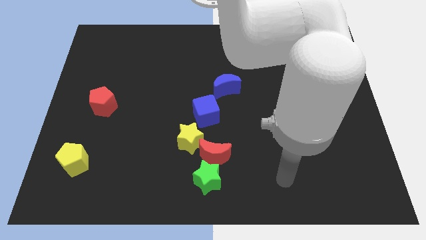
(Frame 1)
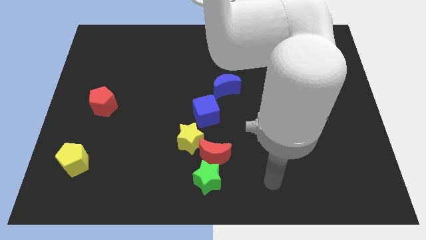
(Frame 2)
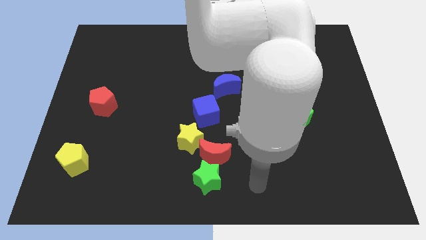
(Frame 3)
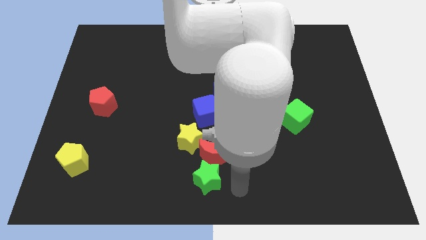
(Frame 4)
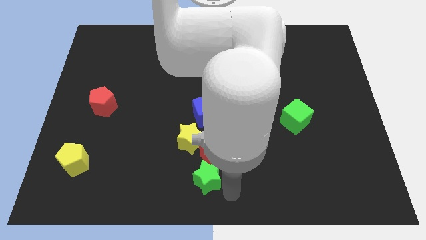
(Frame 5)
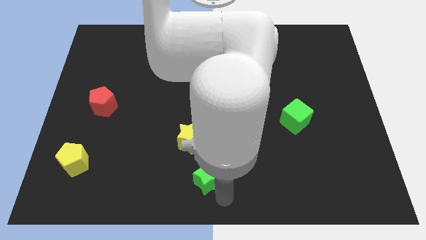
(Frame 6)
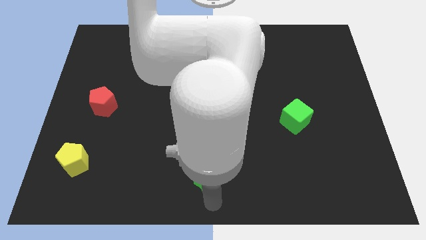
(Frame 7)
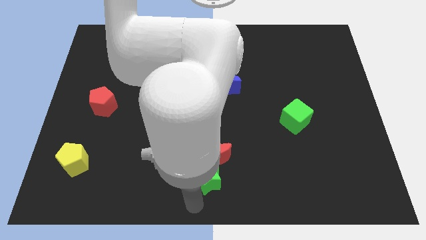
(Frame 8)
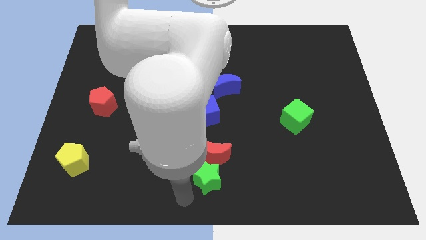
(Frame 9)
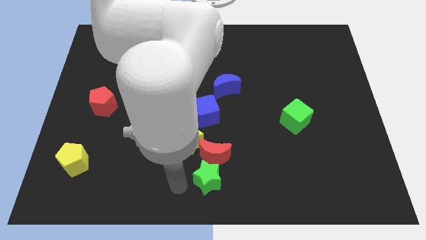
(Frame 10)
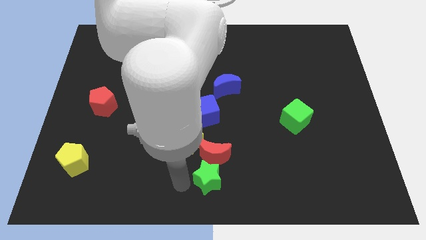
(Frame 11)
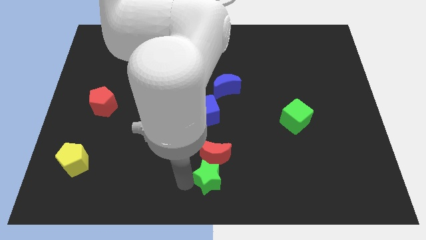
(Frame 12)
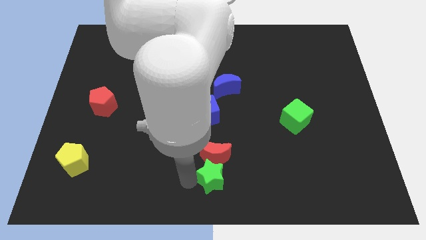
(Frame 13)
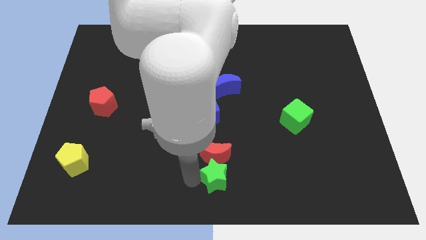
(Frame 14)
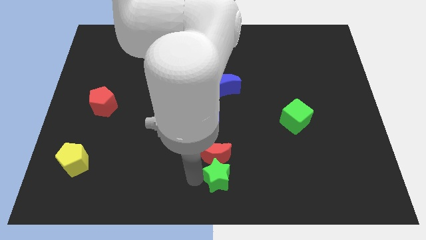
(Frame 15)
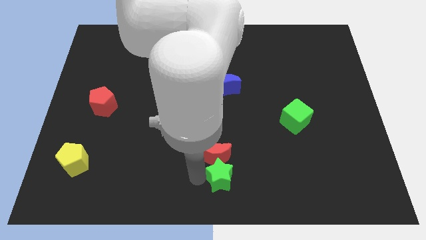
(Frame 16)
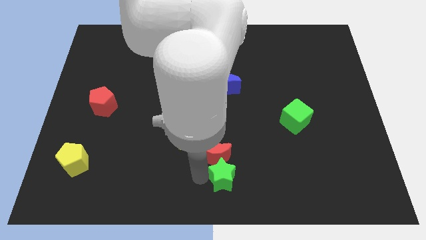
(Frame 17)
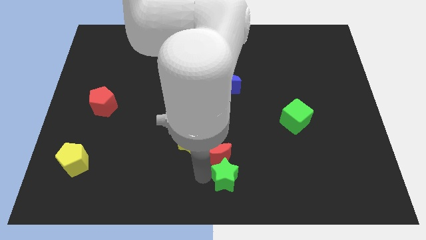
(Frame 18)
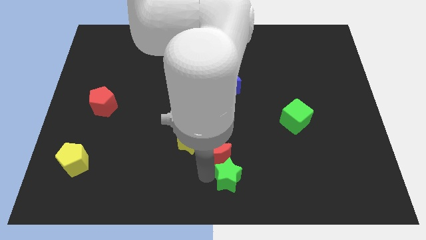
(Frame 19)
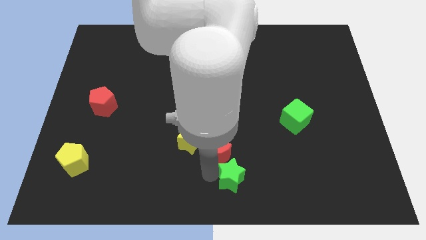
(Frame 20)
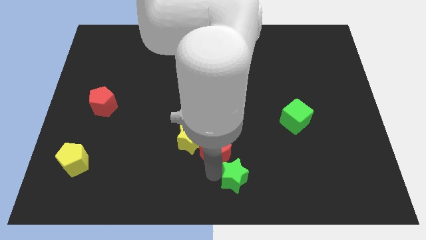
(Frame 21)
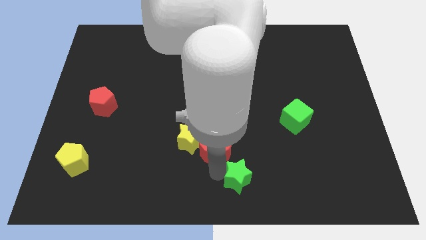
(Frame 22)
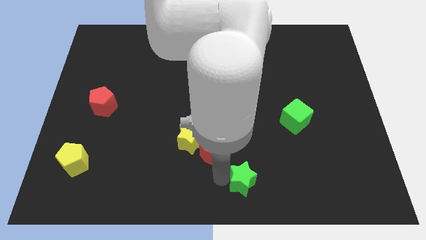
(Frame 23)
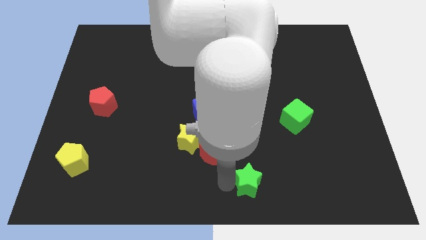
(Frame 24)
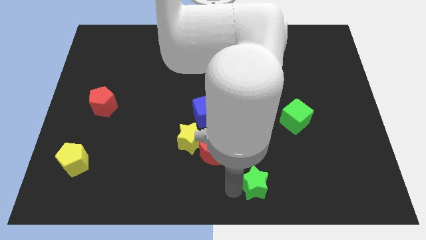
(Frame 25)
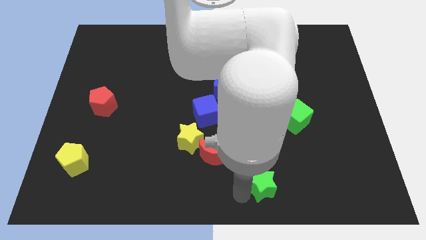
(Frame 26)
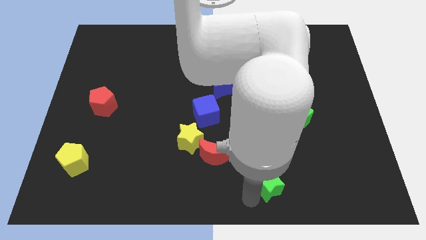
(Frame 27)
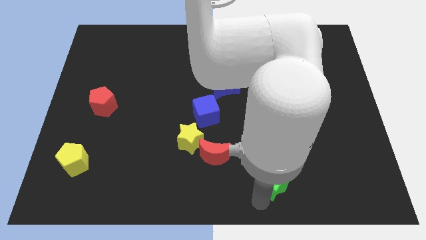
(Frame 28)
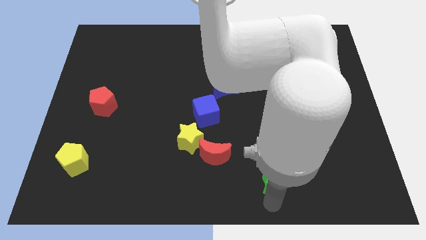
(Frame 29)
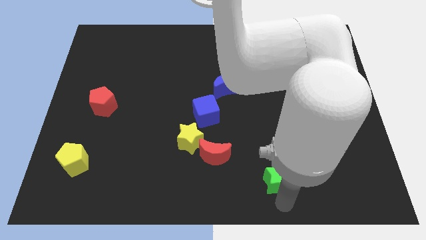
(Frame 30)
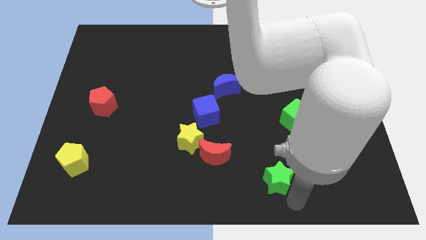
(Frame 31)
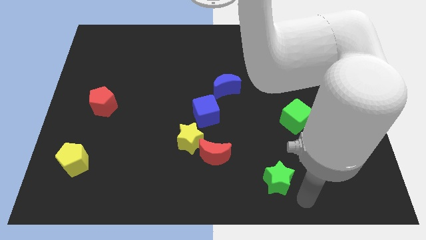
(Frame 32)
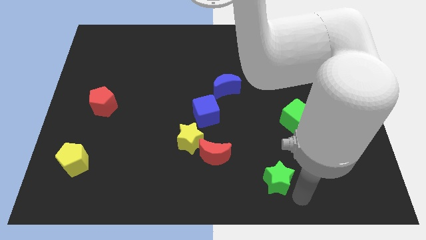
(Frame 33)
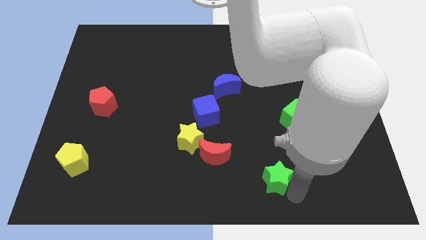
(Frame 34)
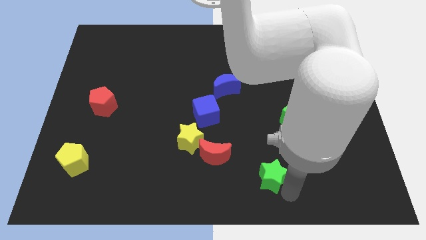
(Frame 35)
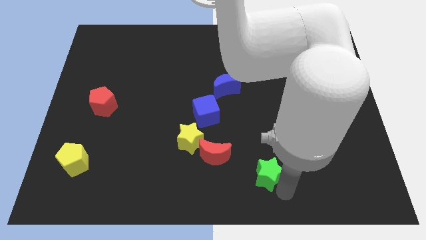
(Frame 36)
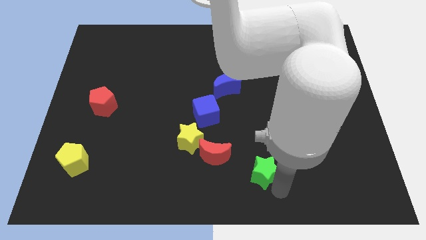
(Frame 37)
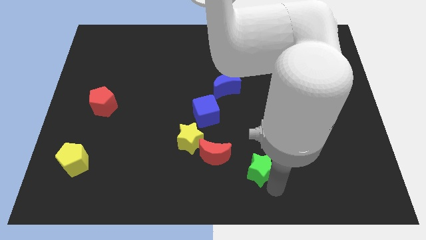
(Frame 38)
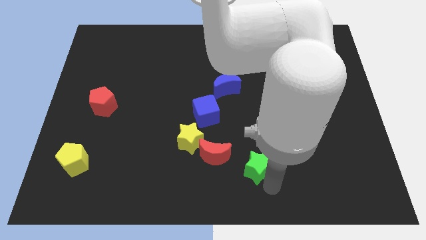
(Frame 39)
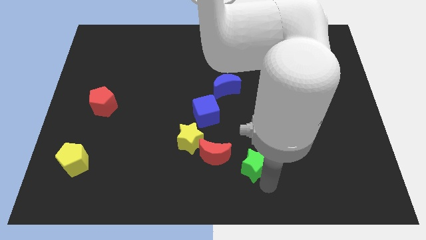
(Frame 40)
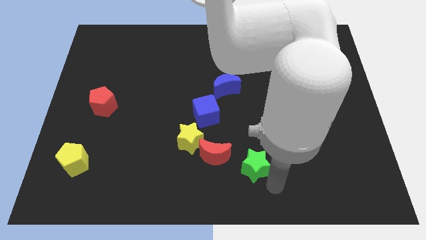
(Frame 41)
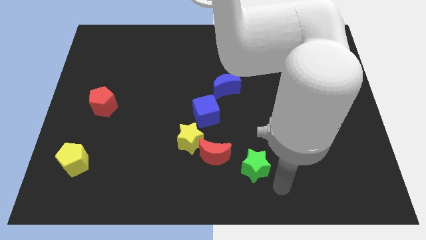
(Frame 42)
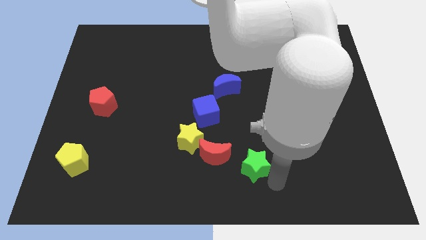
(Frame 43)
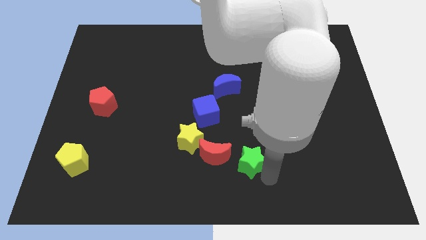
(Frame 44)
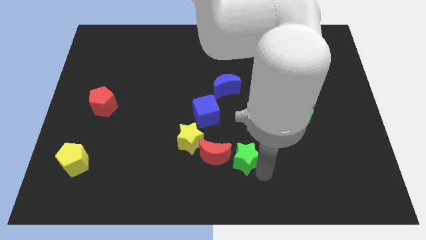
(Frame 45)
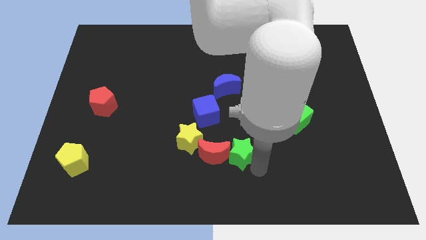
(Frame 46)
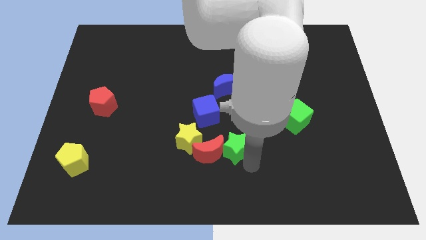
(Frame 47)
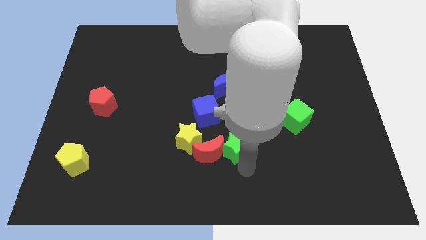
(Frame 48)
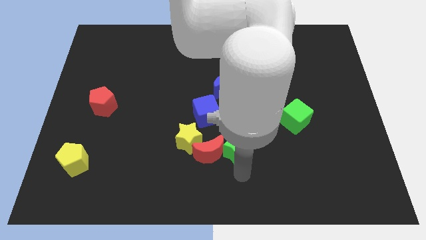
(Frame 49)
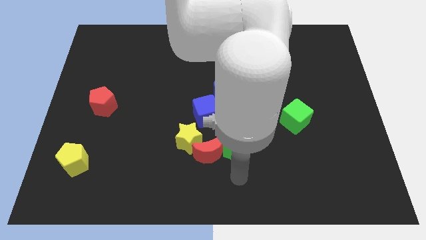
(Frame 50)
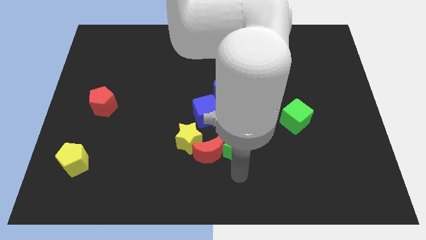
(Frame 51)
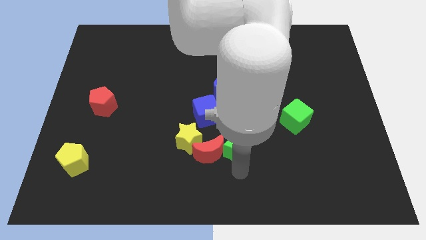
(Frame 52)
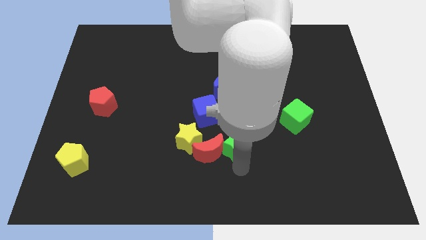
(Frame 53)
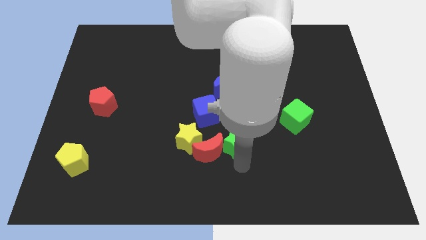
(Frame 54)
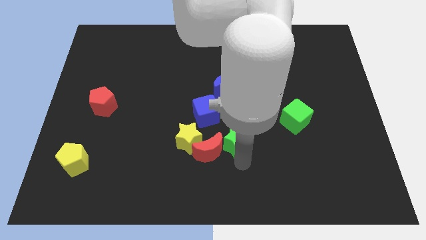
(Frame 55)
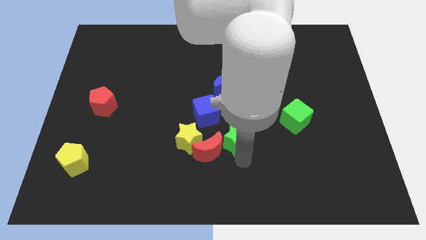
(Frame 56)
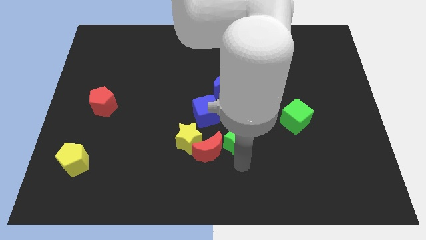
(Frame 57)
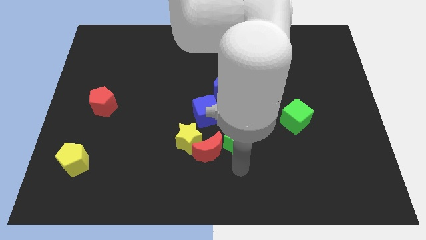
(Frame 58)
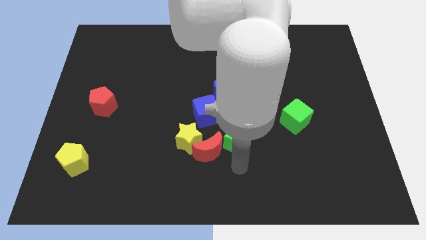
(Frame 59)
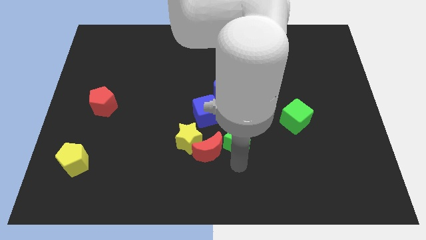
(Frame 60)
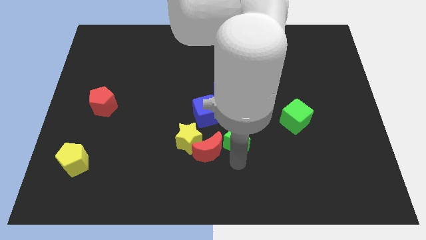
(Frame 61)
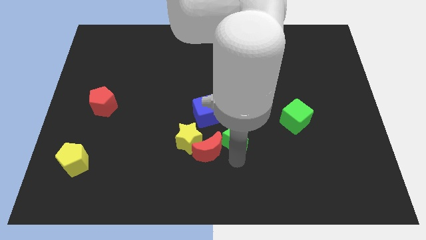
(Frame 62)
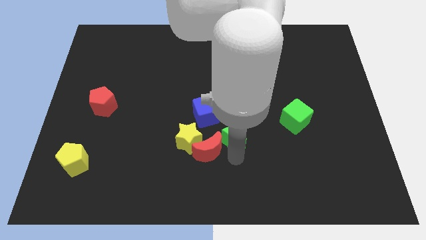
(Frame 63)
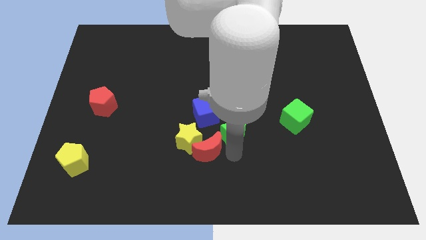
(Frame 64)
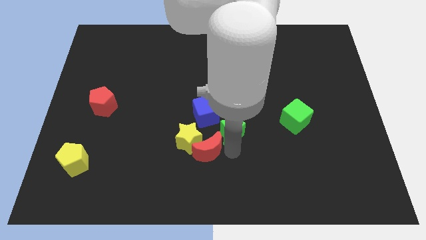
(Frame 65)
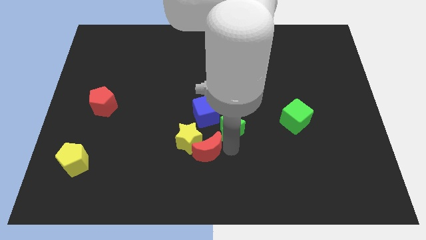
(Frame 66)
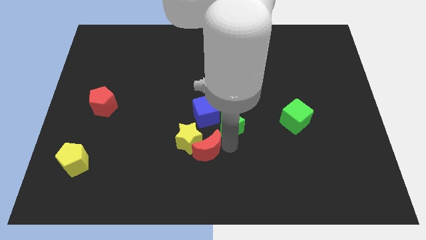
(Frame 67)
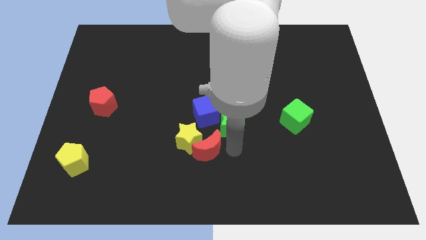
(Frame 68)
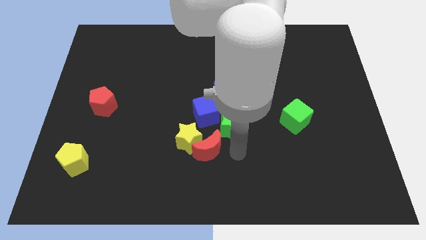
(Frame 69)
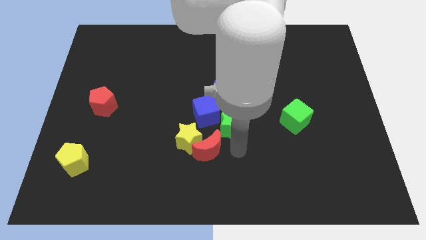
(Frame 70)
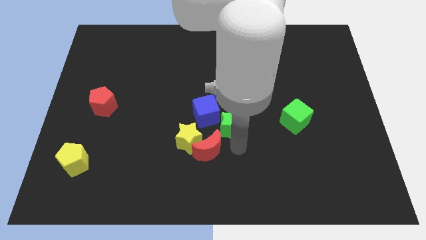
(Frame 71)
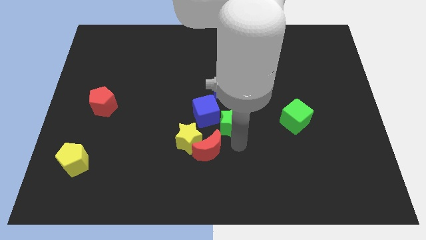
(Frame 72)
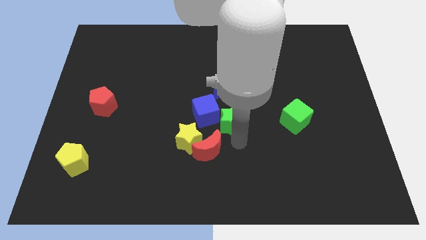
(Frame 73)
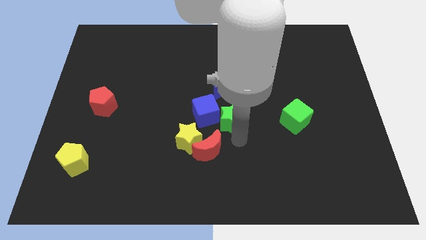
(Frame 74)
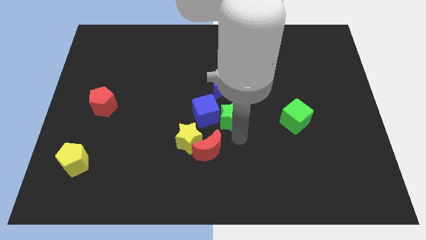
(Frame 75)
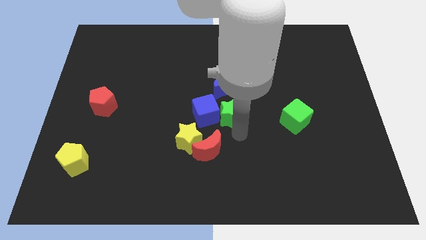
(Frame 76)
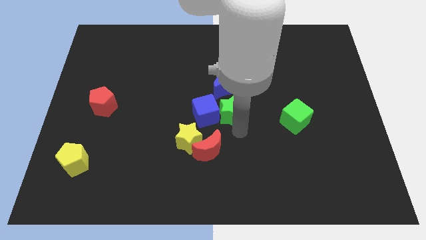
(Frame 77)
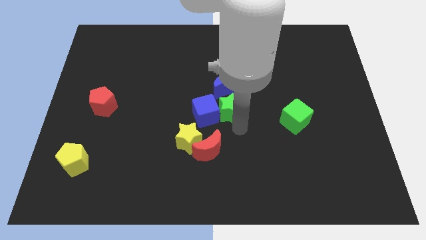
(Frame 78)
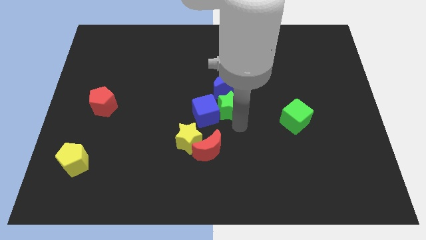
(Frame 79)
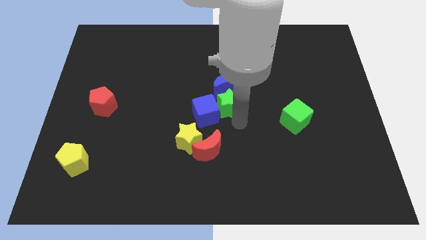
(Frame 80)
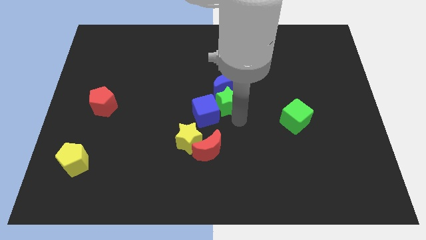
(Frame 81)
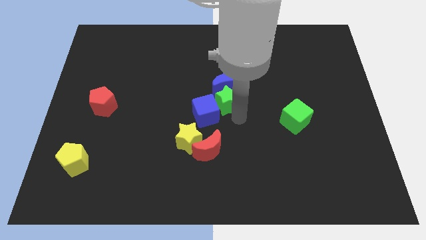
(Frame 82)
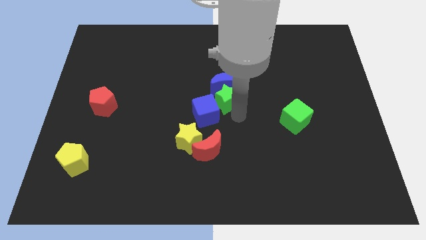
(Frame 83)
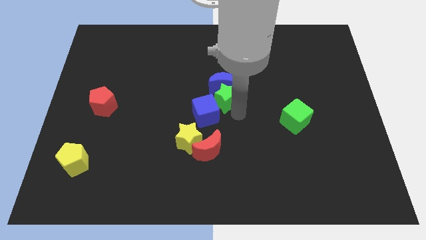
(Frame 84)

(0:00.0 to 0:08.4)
push the green star upwards
